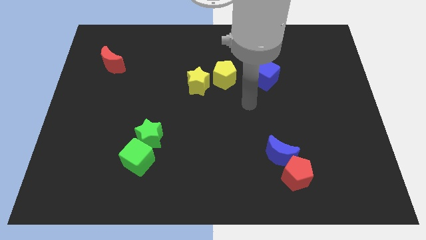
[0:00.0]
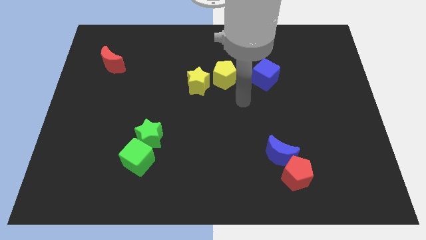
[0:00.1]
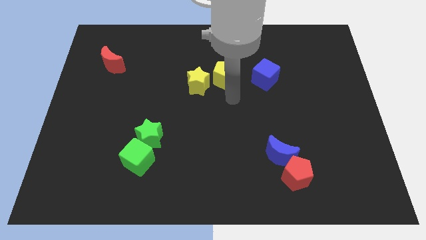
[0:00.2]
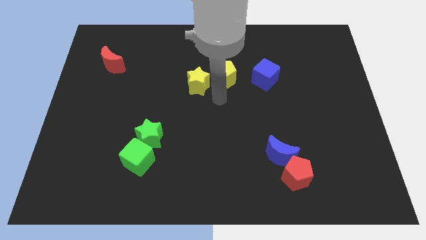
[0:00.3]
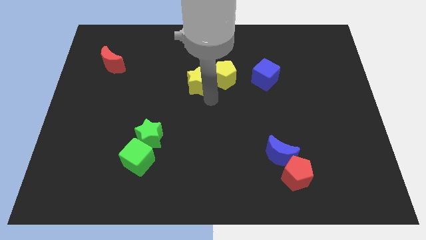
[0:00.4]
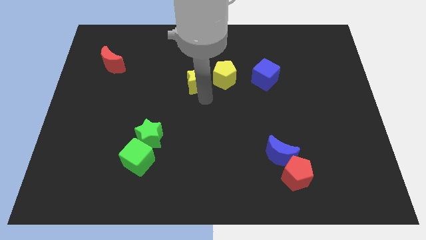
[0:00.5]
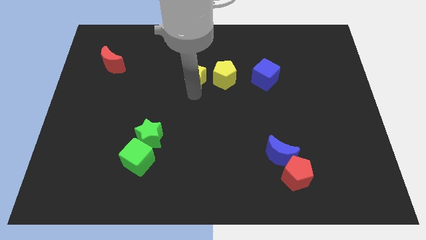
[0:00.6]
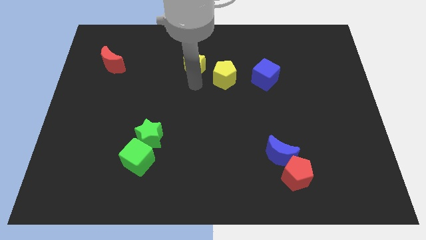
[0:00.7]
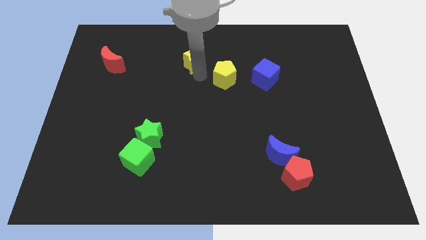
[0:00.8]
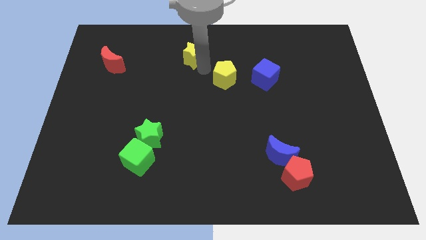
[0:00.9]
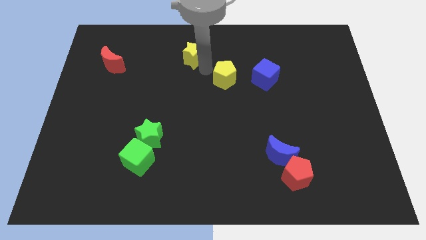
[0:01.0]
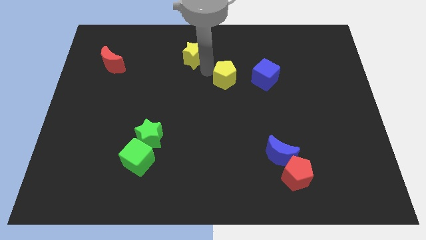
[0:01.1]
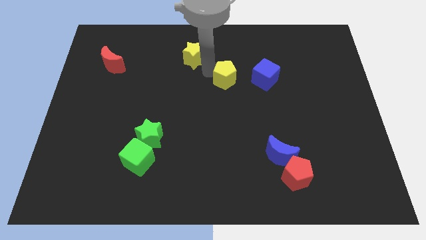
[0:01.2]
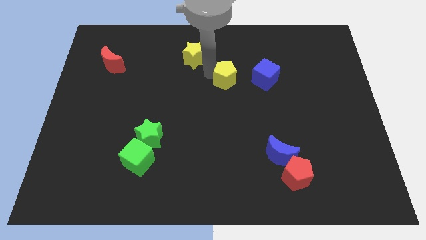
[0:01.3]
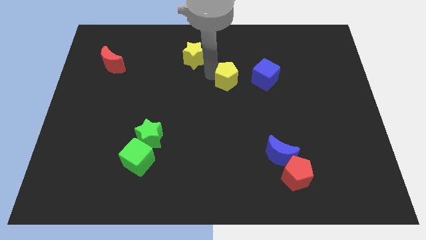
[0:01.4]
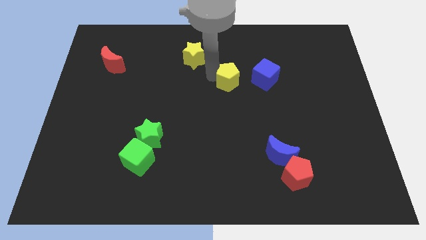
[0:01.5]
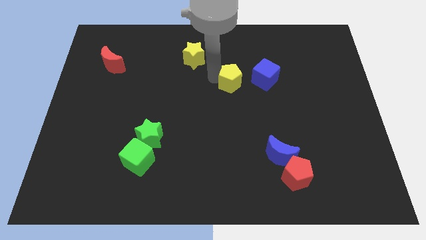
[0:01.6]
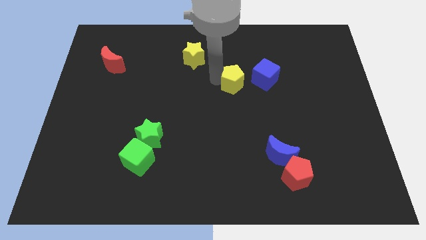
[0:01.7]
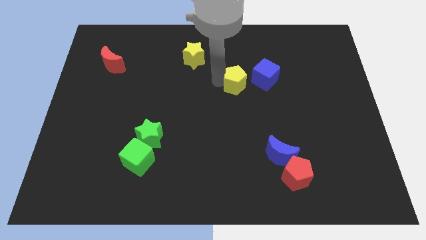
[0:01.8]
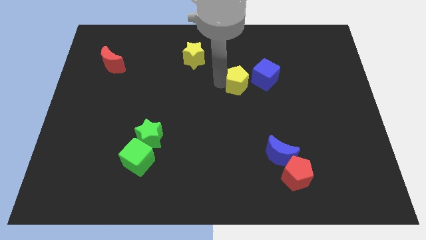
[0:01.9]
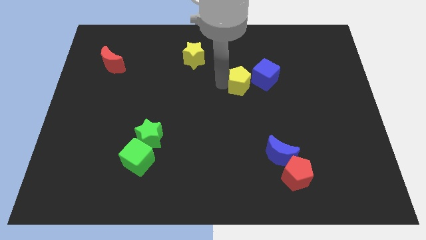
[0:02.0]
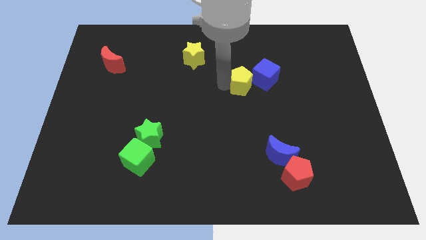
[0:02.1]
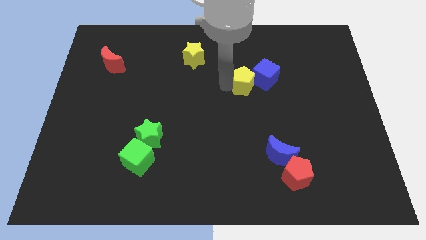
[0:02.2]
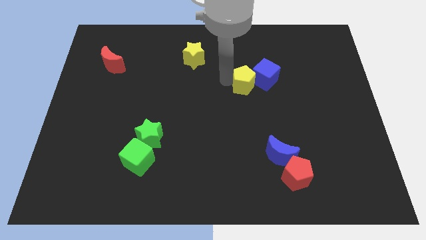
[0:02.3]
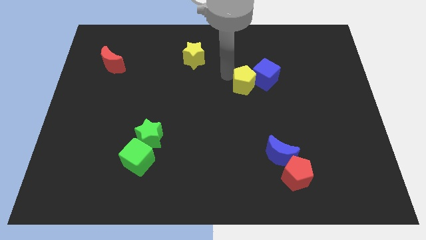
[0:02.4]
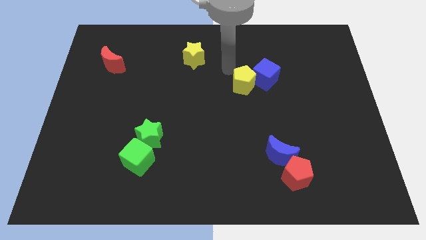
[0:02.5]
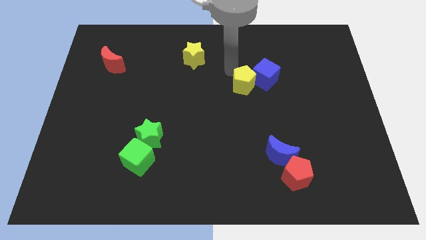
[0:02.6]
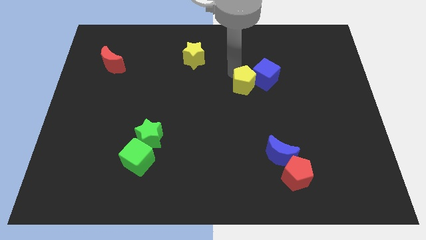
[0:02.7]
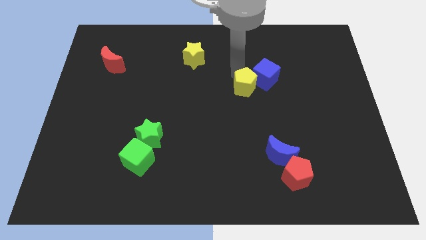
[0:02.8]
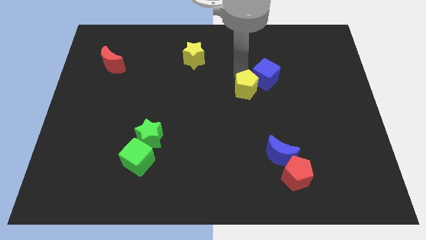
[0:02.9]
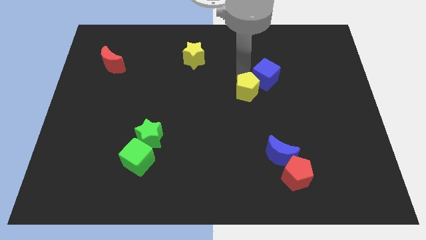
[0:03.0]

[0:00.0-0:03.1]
move the yellow pentagon diagonally down and to the right a little

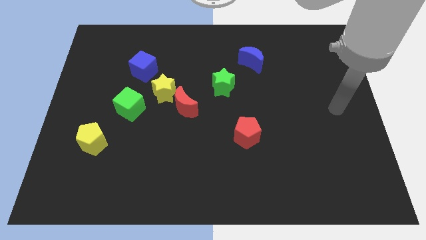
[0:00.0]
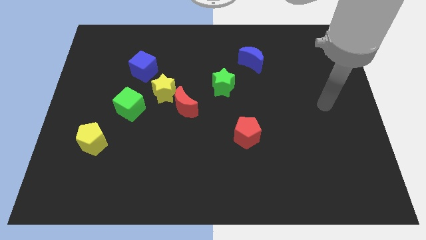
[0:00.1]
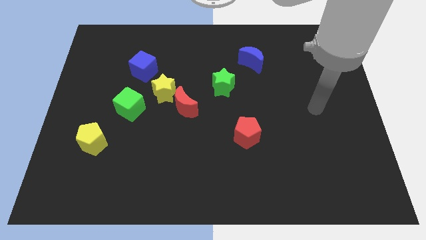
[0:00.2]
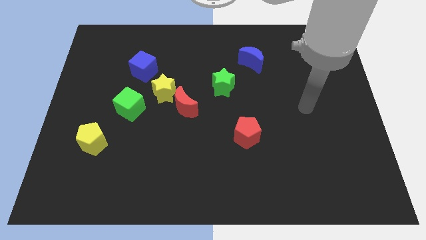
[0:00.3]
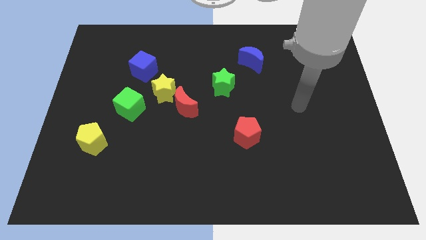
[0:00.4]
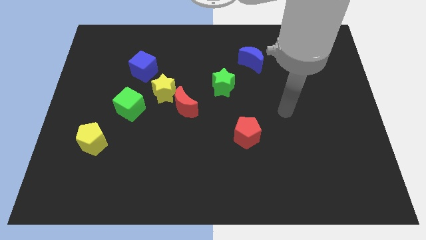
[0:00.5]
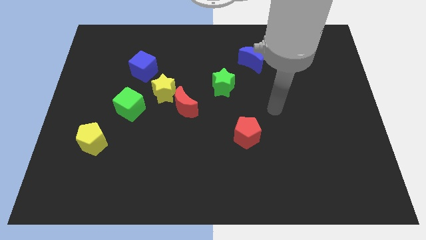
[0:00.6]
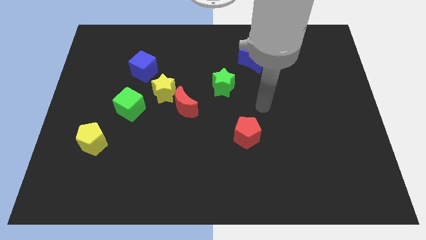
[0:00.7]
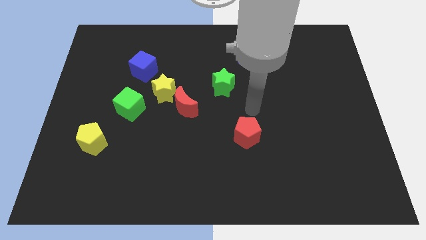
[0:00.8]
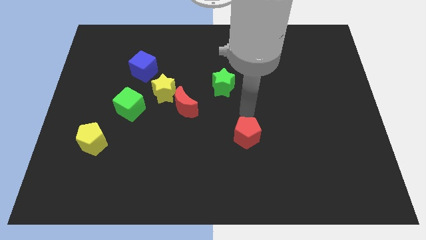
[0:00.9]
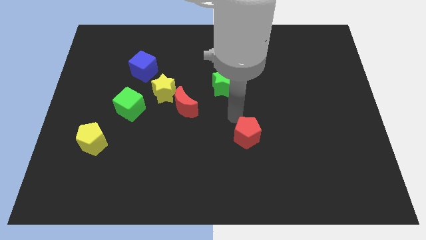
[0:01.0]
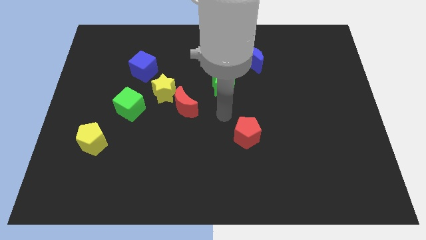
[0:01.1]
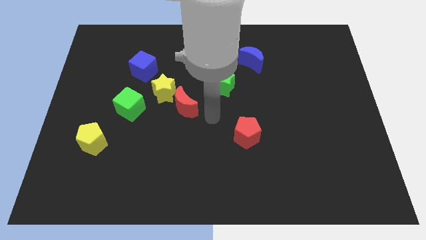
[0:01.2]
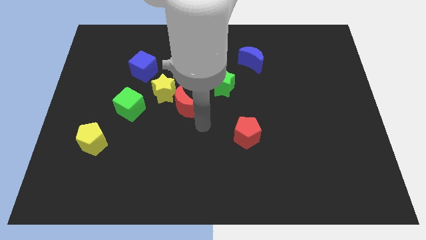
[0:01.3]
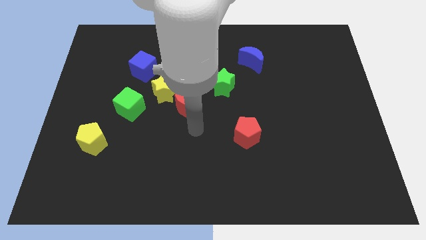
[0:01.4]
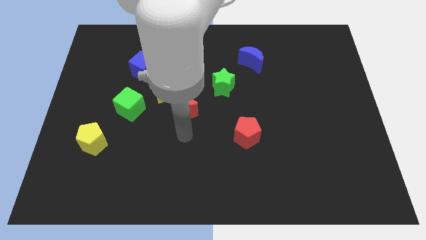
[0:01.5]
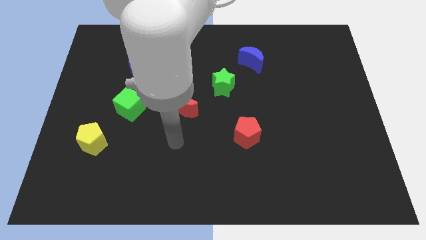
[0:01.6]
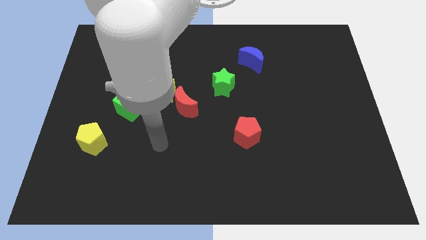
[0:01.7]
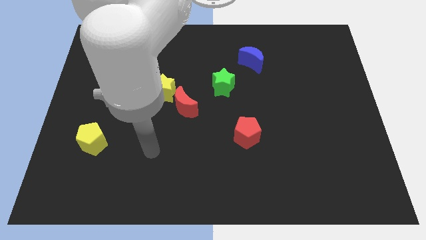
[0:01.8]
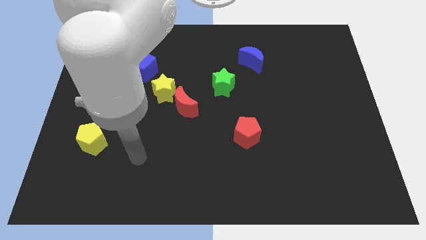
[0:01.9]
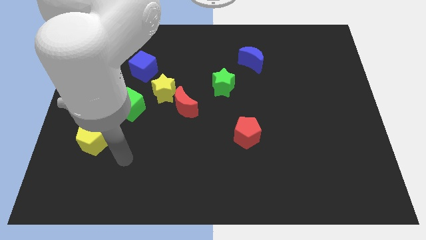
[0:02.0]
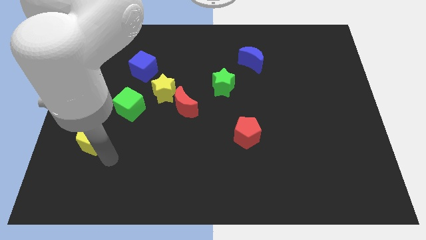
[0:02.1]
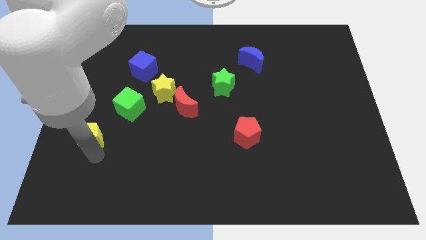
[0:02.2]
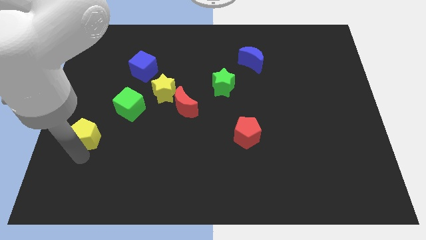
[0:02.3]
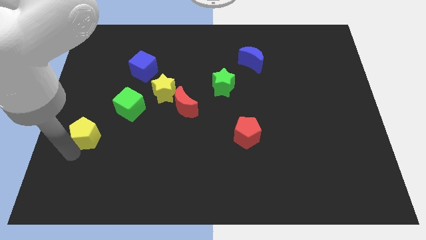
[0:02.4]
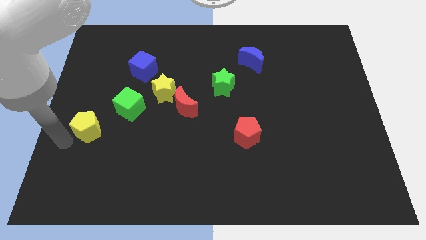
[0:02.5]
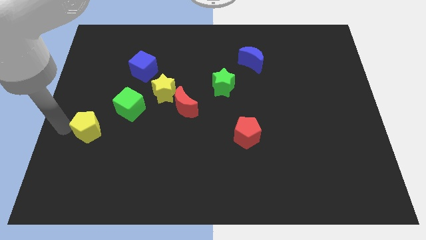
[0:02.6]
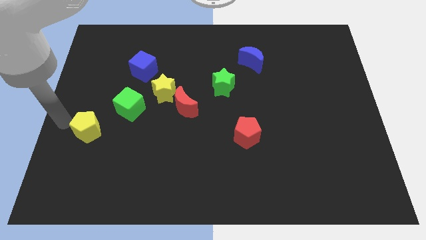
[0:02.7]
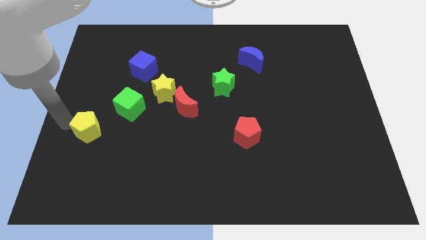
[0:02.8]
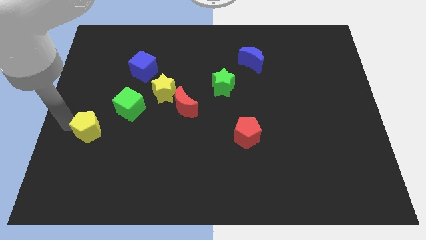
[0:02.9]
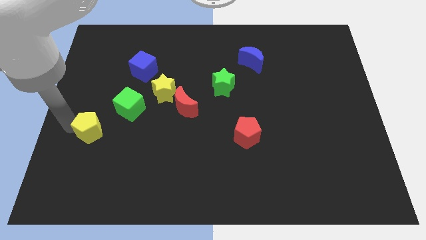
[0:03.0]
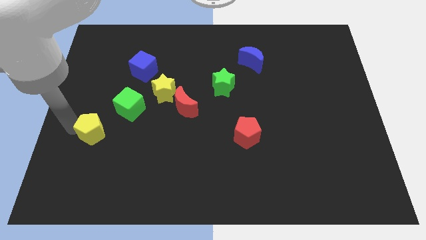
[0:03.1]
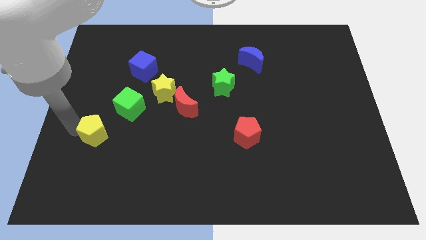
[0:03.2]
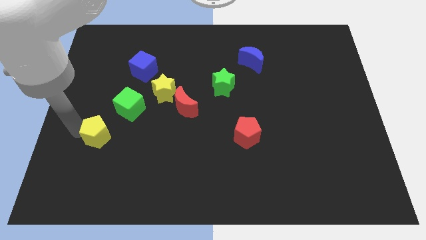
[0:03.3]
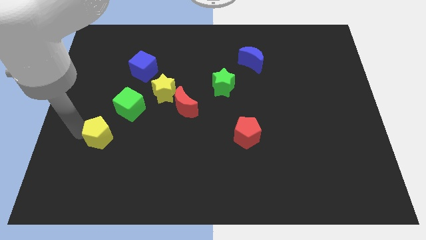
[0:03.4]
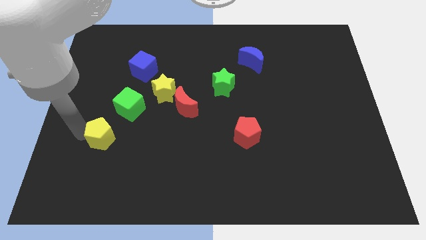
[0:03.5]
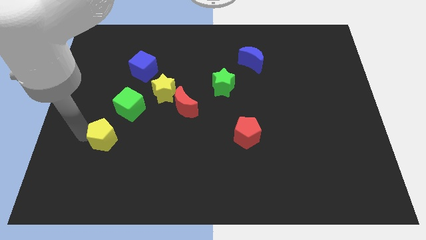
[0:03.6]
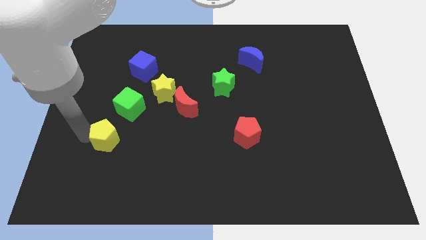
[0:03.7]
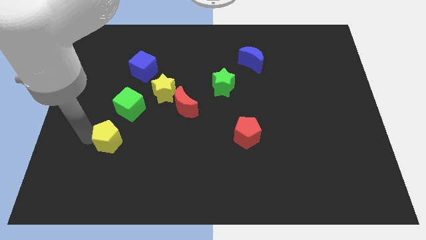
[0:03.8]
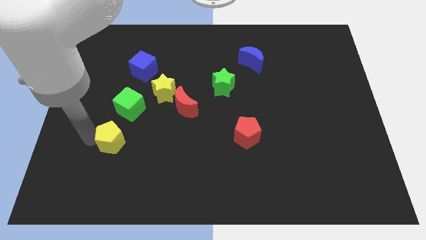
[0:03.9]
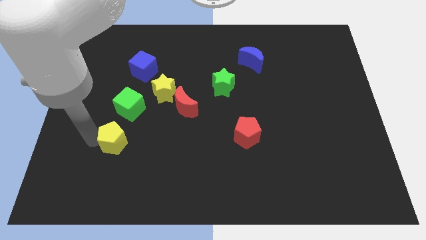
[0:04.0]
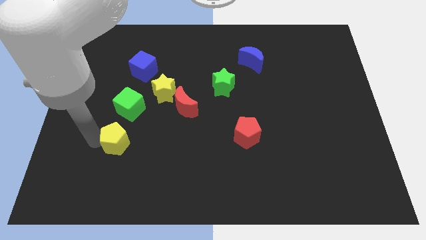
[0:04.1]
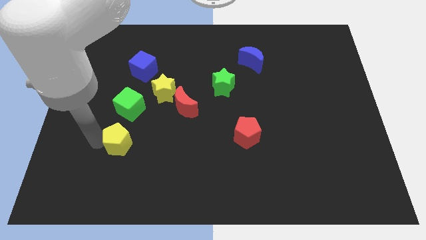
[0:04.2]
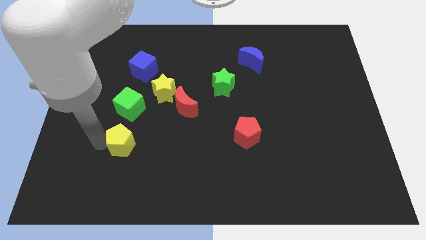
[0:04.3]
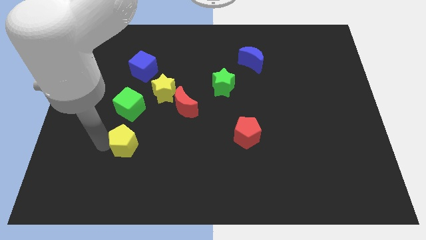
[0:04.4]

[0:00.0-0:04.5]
slightly slide the yellow pentagon to the right

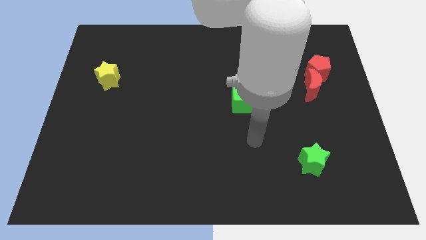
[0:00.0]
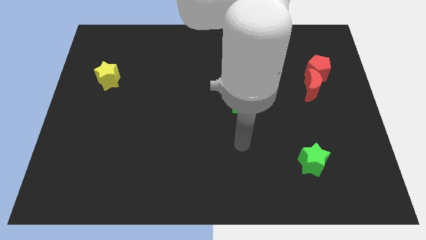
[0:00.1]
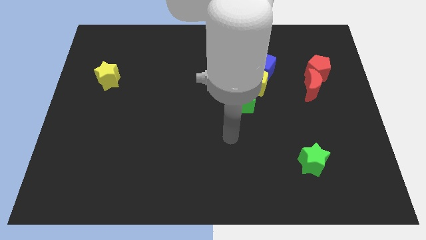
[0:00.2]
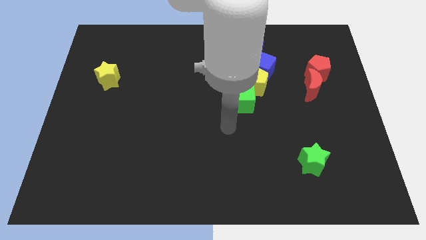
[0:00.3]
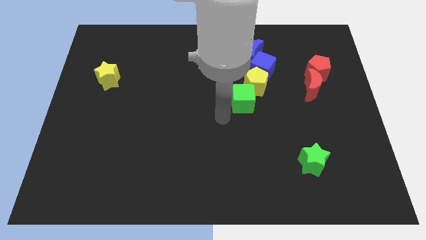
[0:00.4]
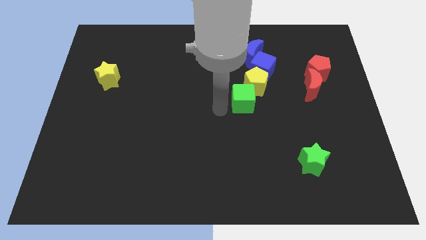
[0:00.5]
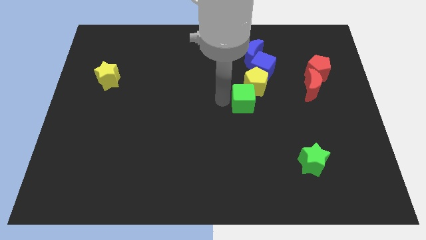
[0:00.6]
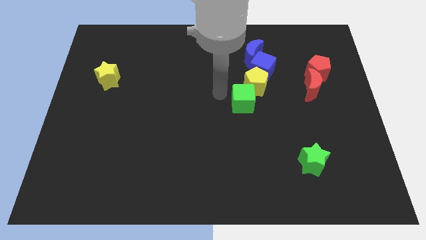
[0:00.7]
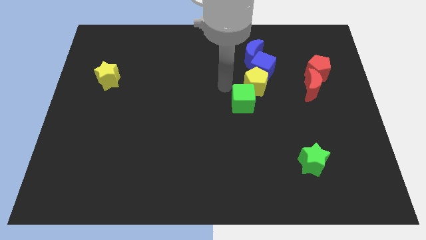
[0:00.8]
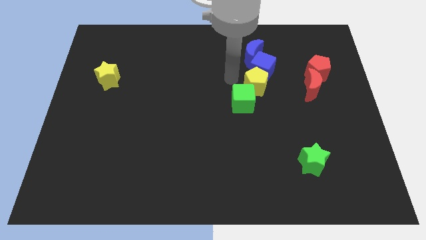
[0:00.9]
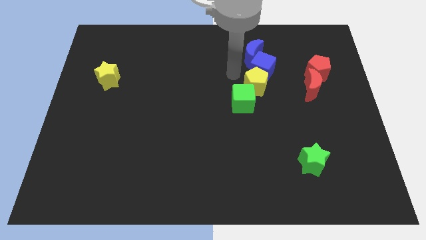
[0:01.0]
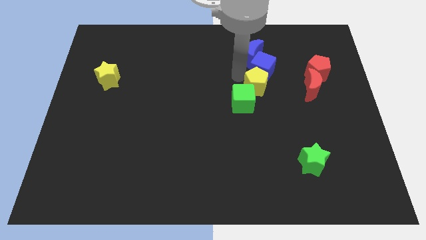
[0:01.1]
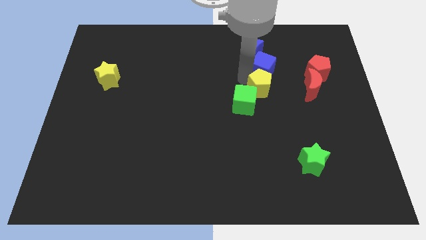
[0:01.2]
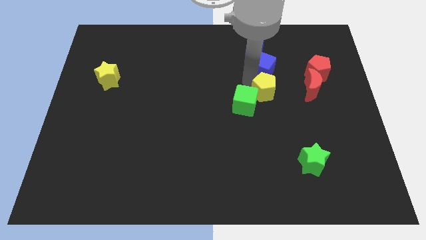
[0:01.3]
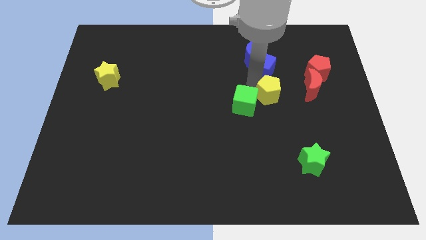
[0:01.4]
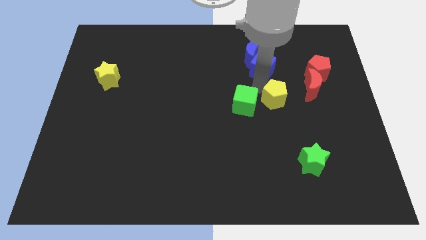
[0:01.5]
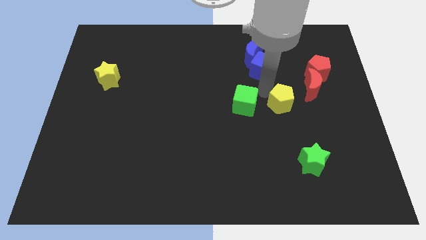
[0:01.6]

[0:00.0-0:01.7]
move the yellow pentagon a little bit downwards and to the right
